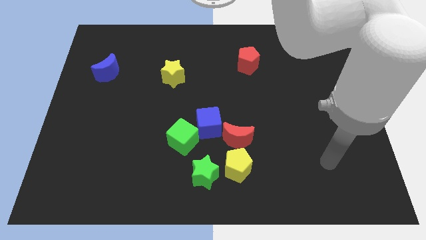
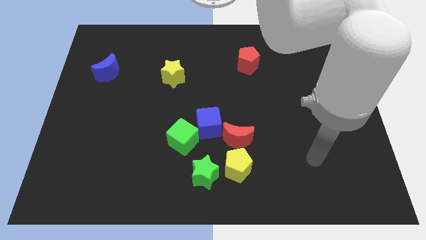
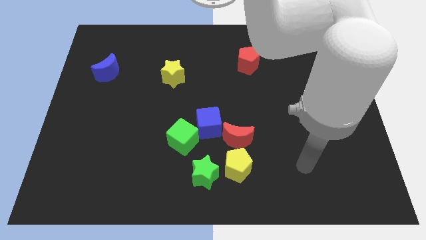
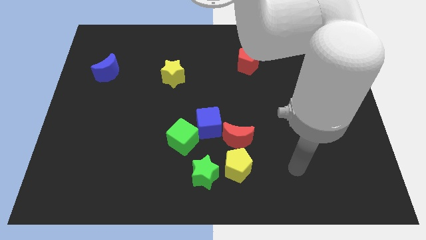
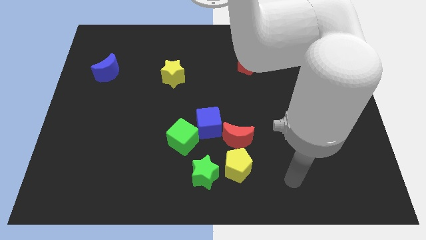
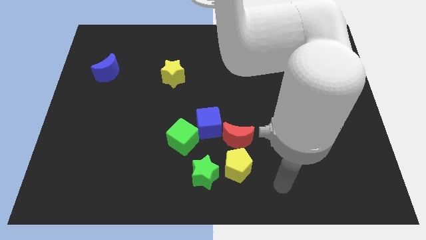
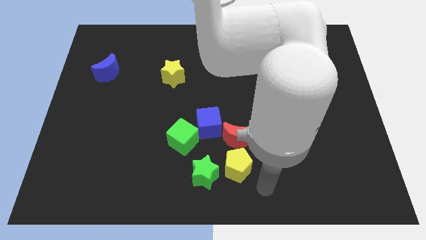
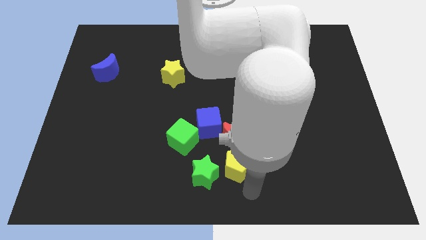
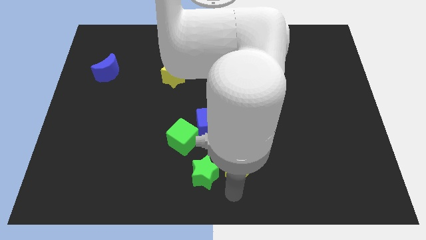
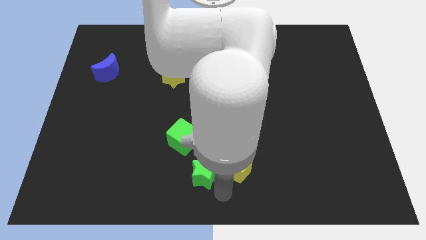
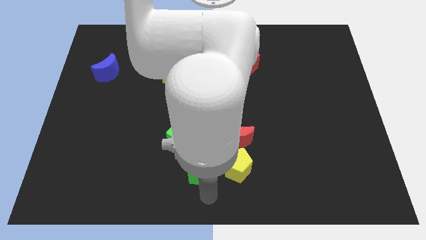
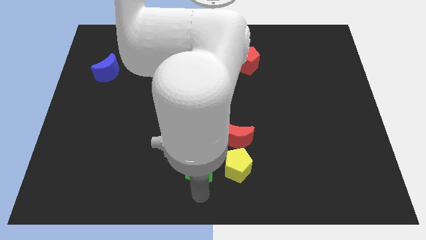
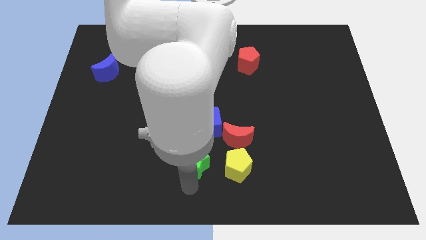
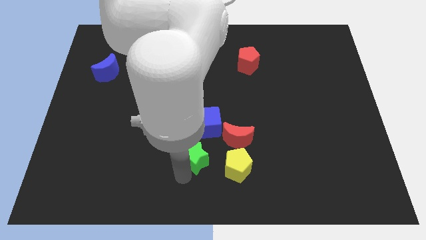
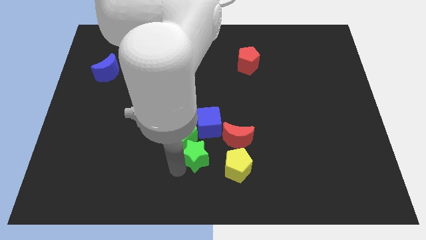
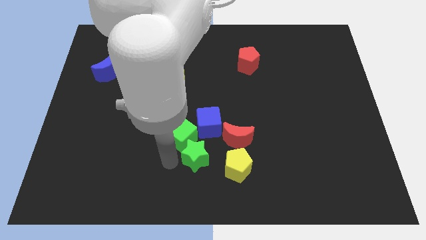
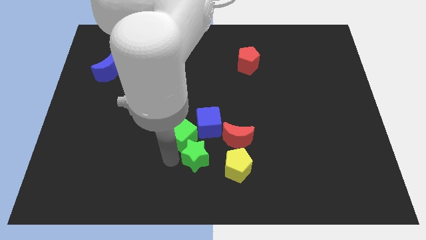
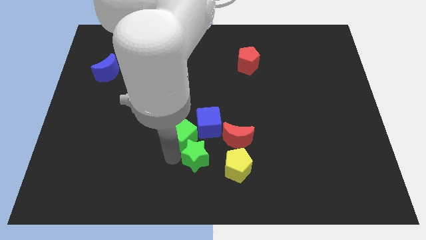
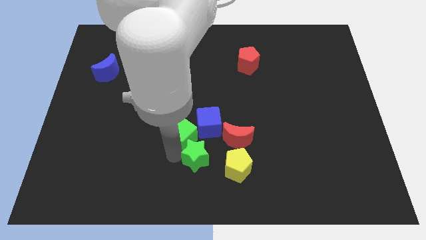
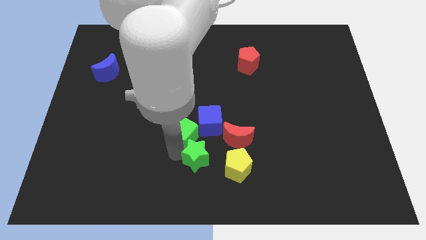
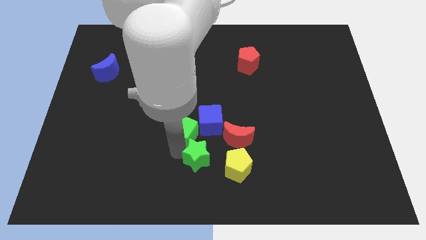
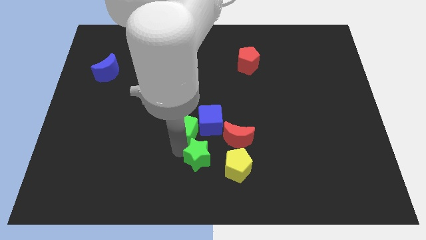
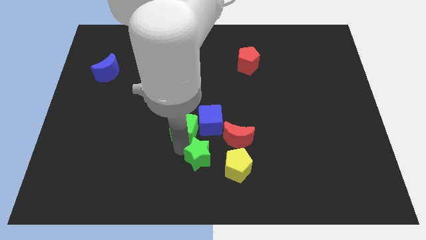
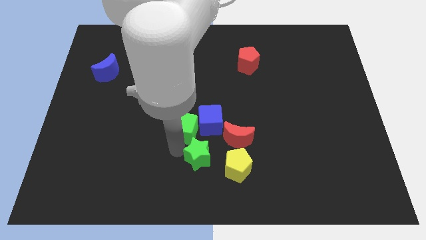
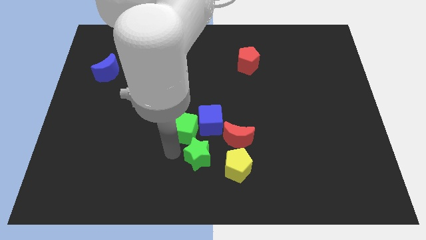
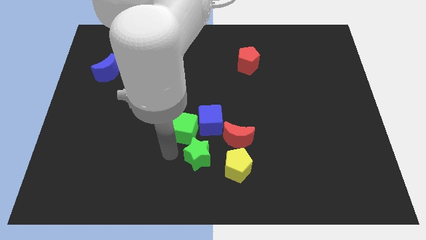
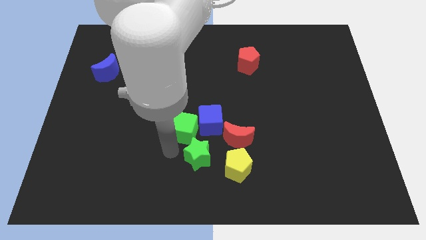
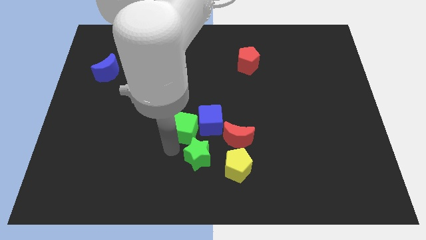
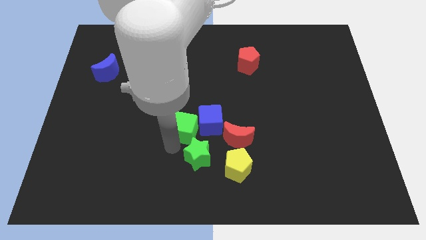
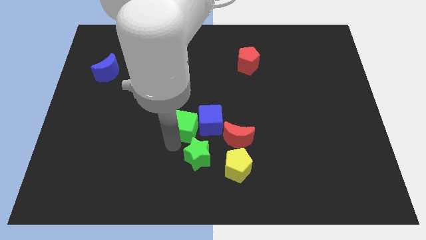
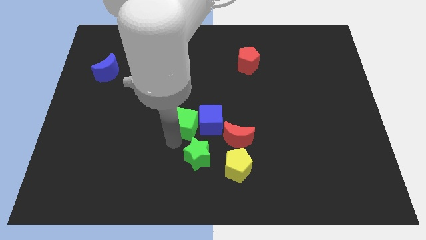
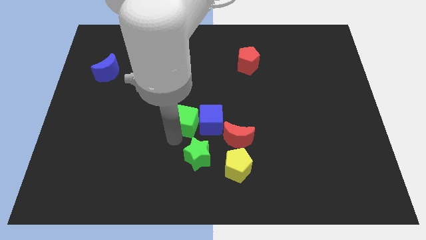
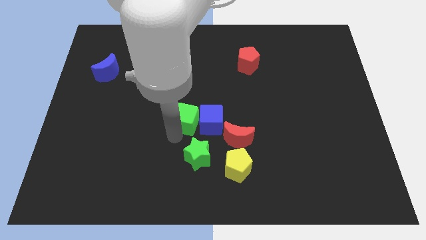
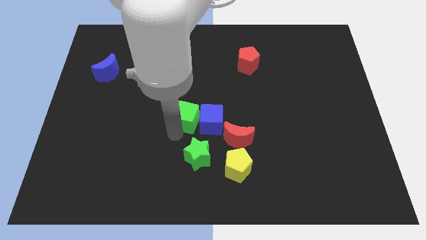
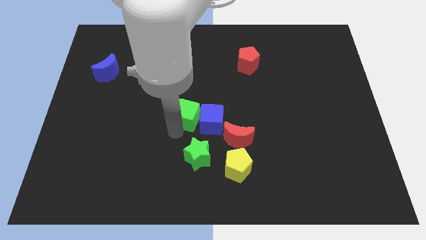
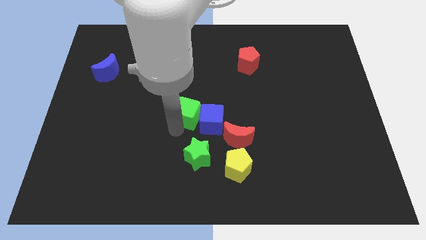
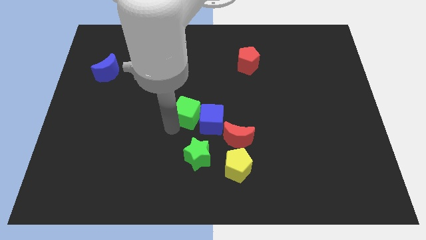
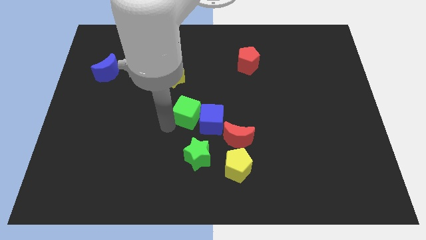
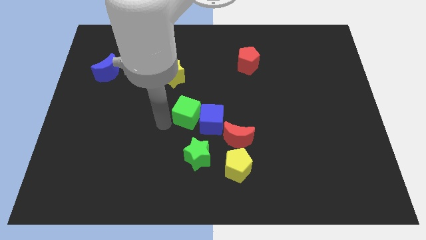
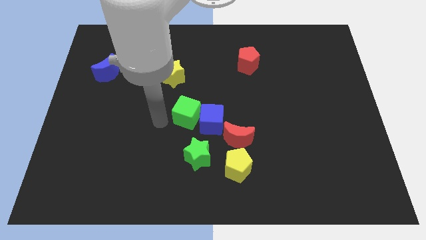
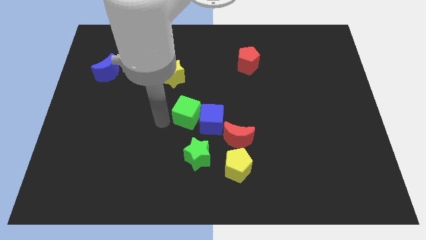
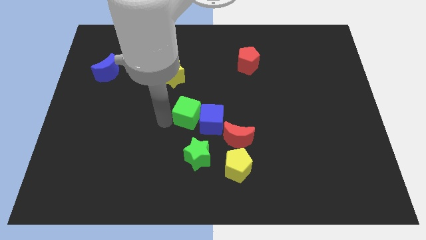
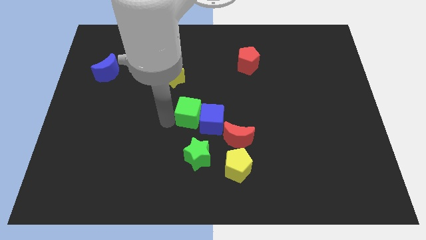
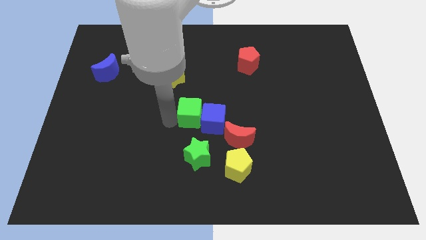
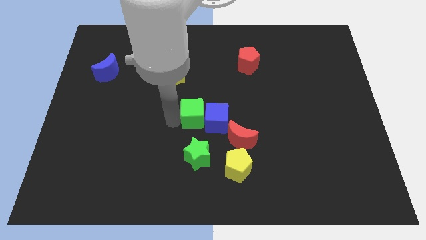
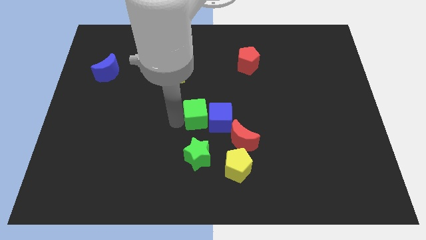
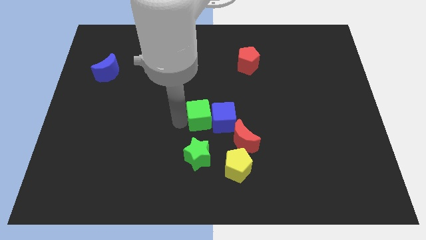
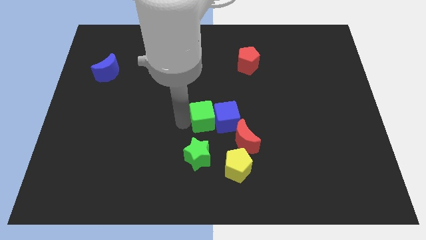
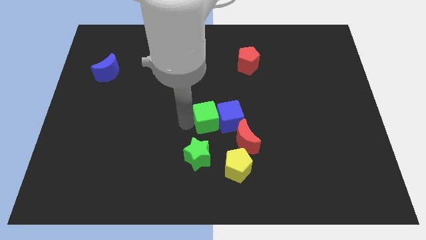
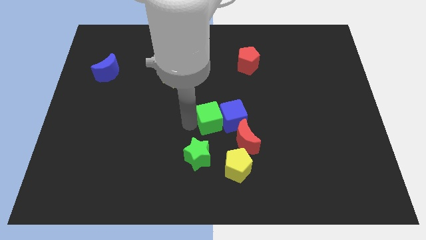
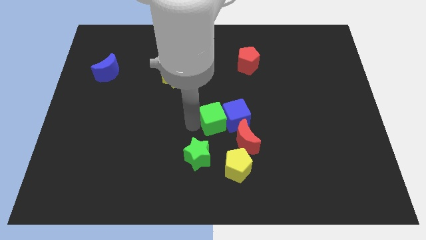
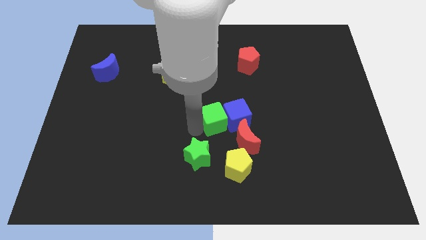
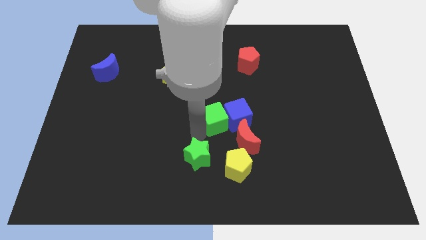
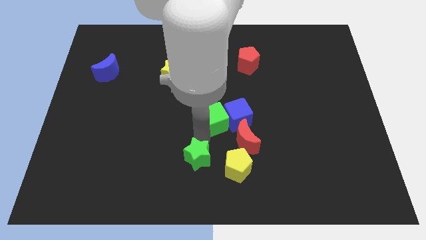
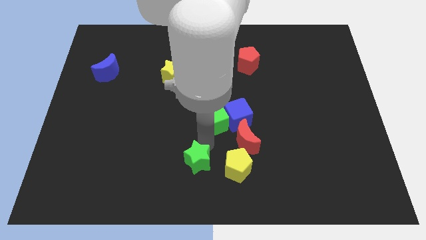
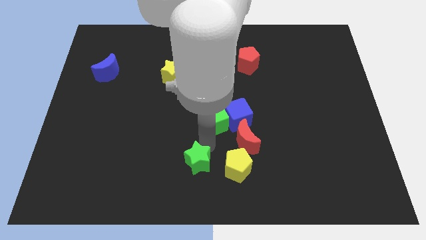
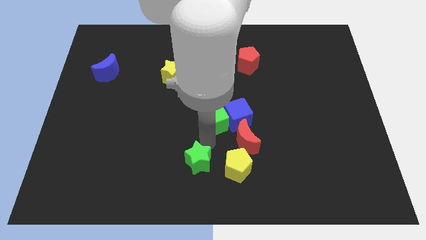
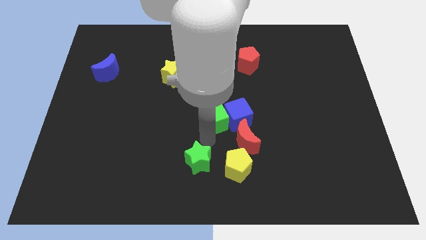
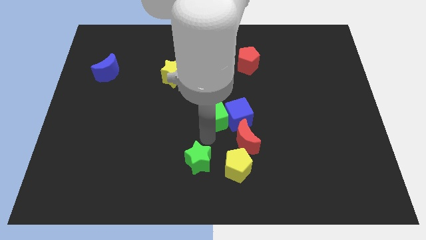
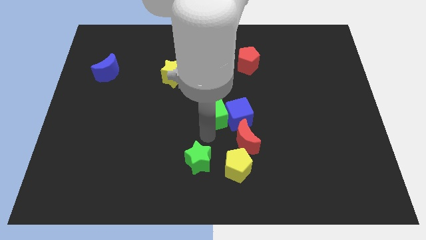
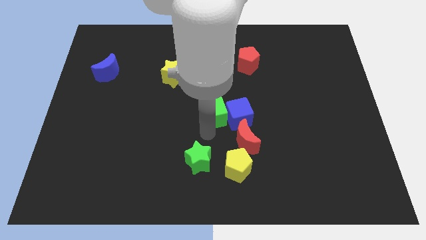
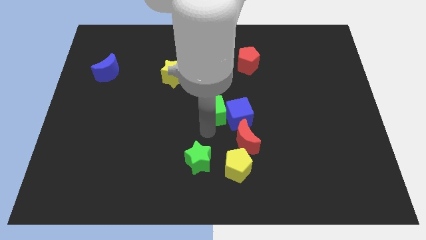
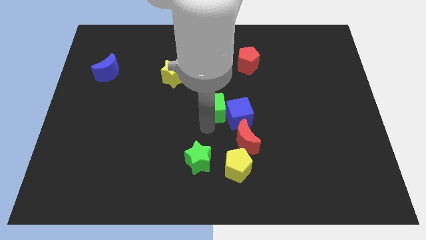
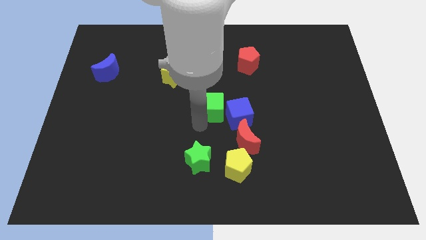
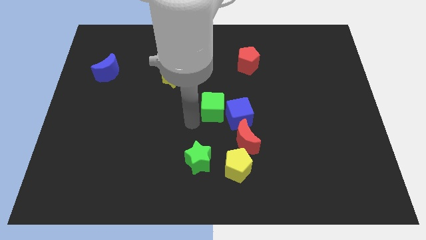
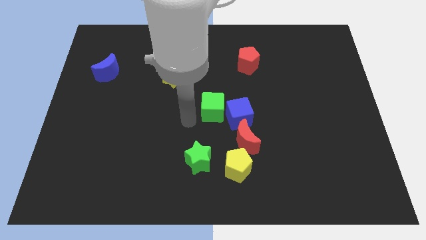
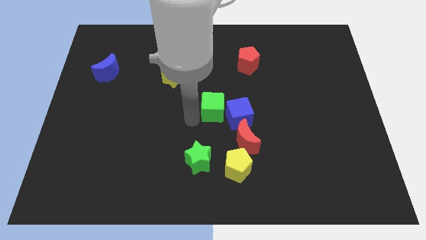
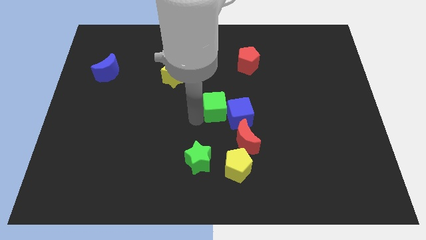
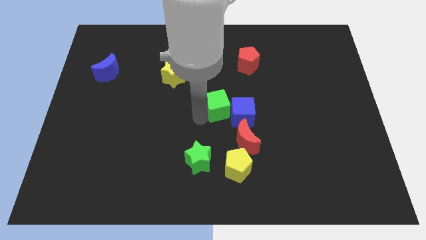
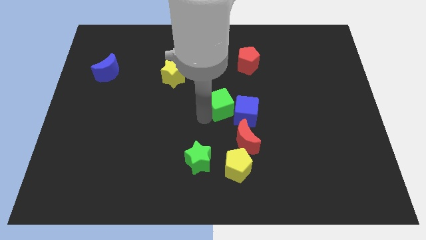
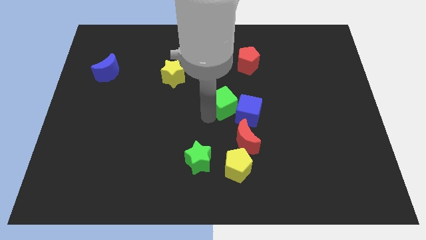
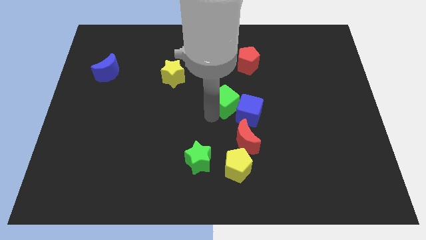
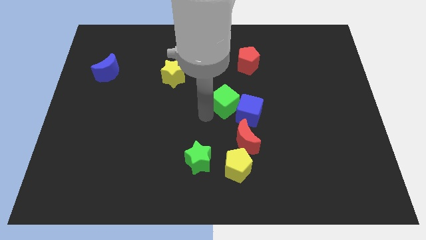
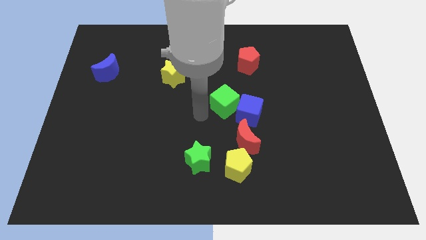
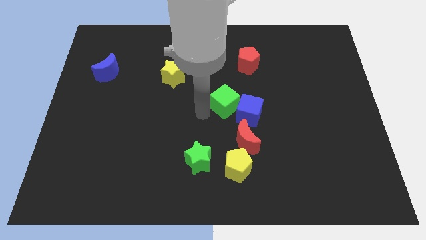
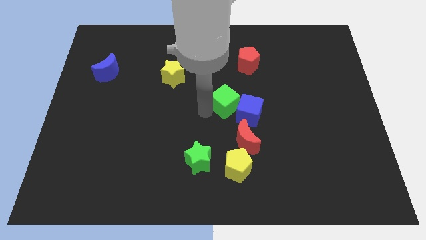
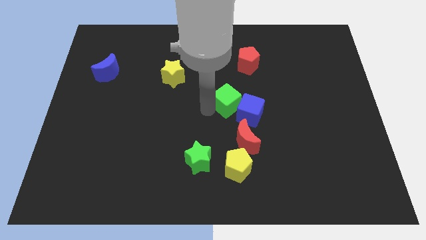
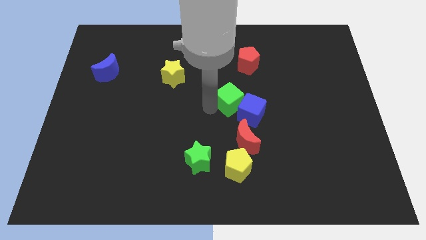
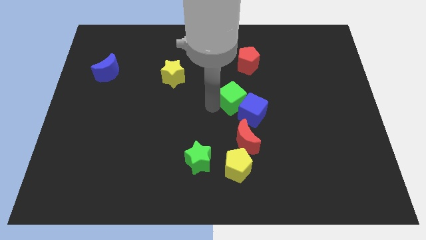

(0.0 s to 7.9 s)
slide the green cube to the bottom side of the red pentagon
